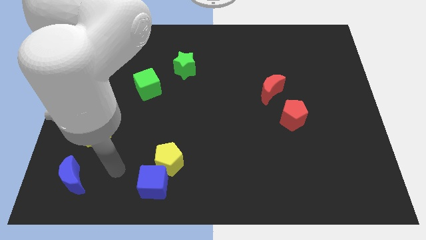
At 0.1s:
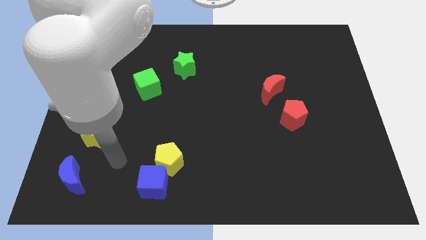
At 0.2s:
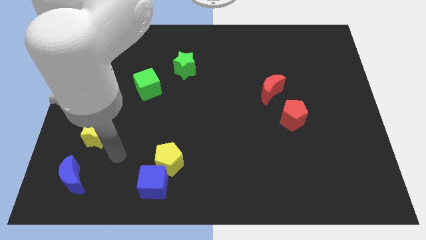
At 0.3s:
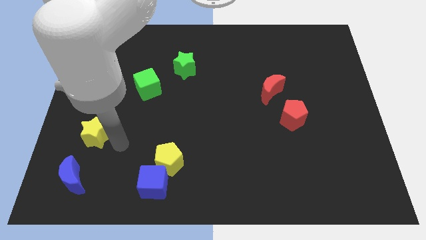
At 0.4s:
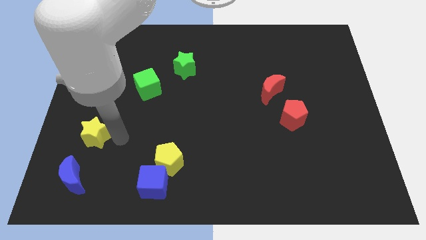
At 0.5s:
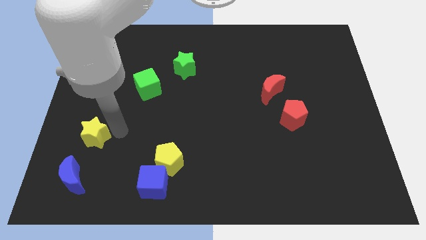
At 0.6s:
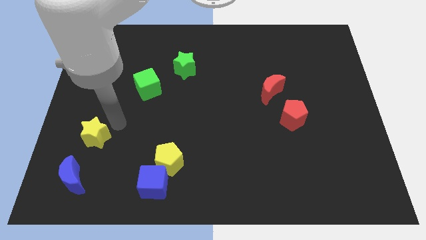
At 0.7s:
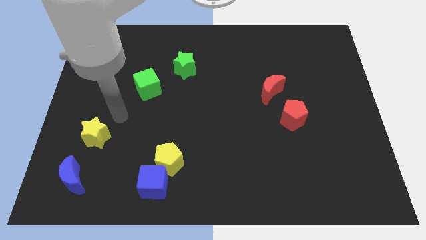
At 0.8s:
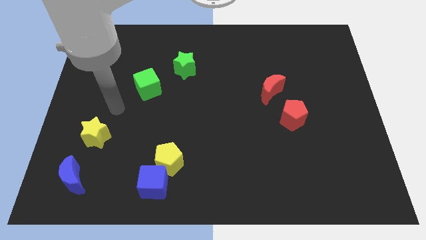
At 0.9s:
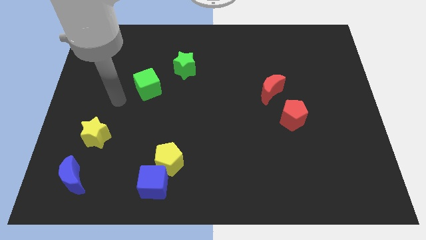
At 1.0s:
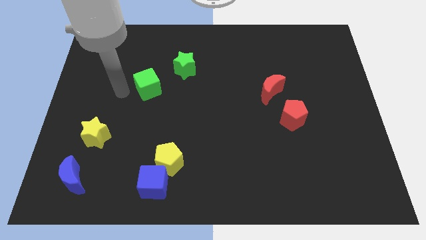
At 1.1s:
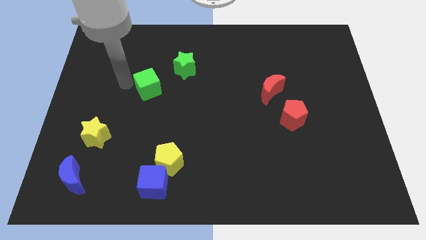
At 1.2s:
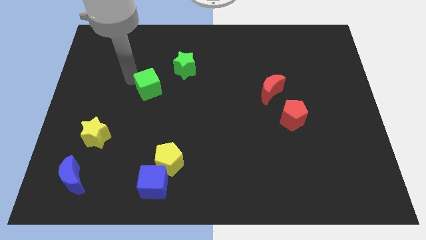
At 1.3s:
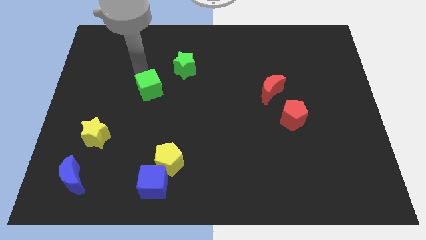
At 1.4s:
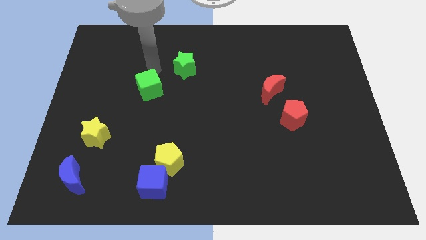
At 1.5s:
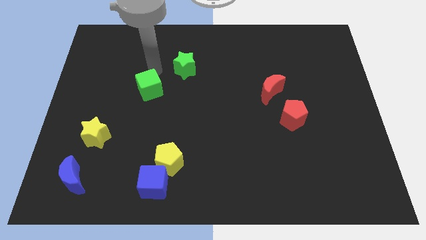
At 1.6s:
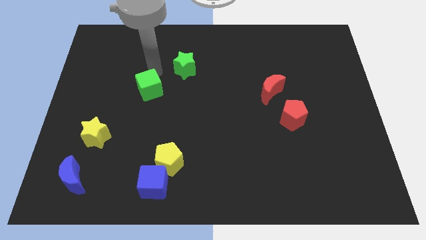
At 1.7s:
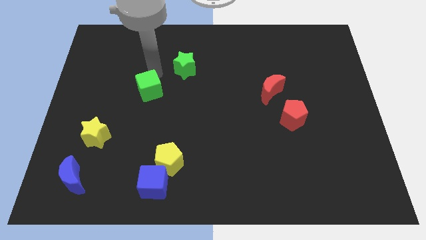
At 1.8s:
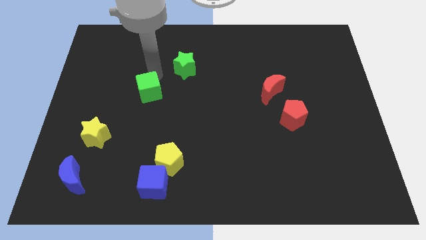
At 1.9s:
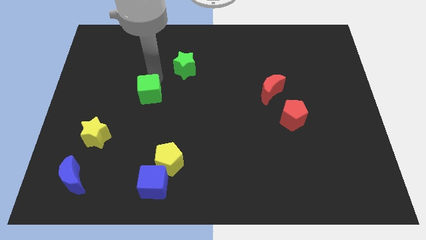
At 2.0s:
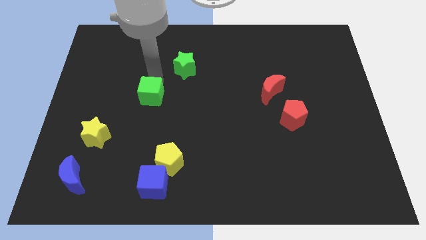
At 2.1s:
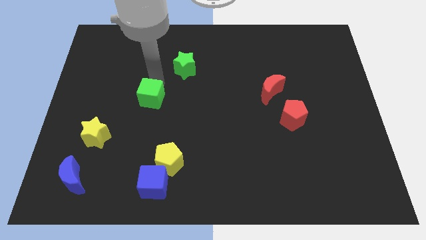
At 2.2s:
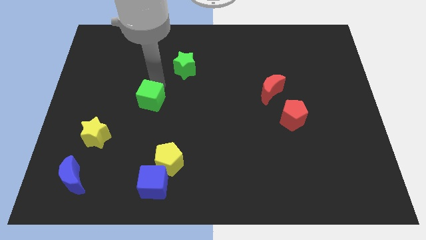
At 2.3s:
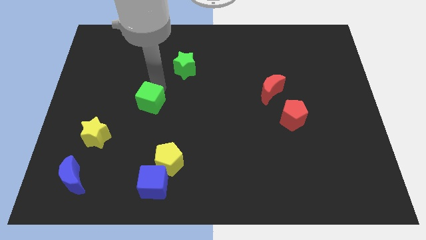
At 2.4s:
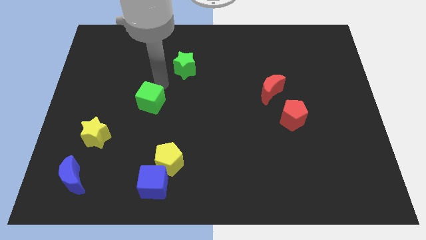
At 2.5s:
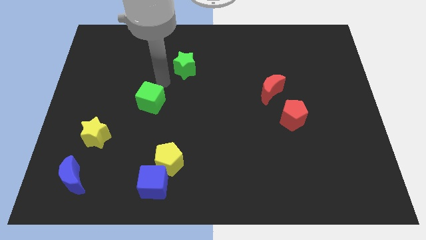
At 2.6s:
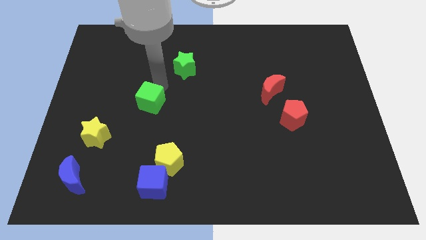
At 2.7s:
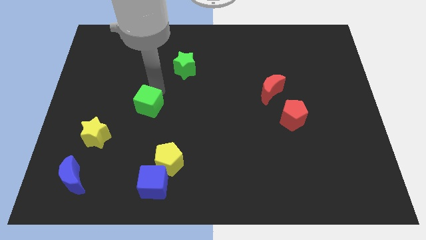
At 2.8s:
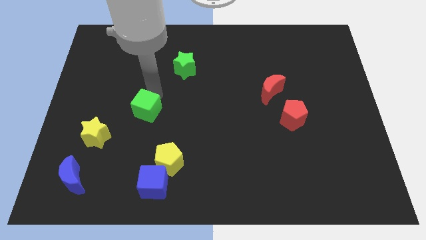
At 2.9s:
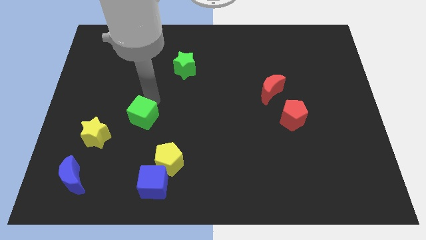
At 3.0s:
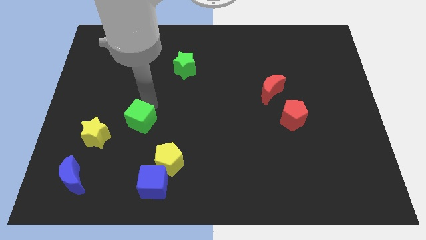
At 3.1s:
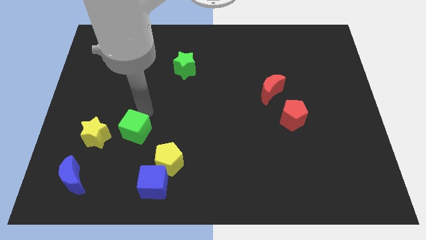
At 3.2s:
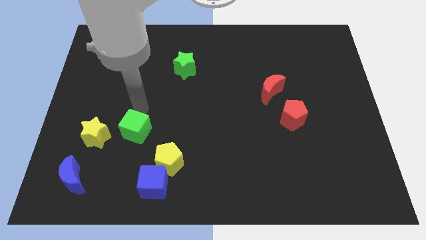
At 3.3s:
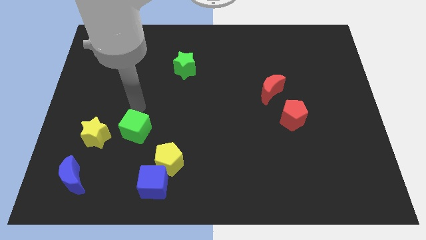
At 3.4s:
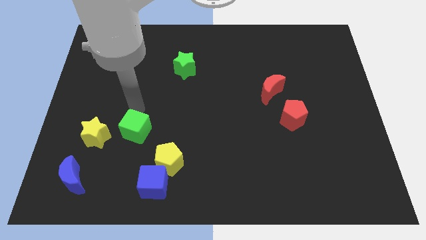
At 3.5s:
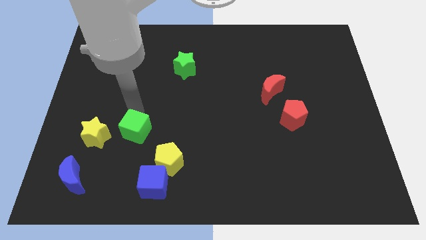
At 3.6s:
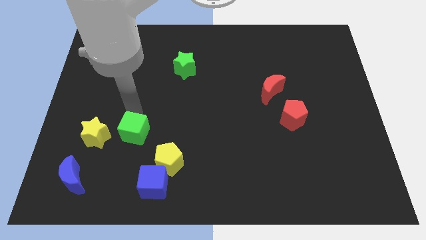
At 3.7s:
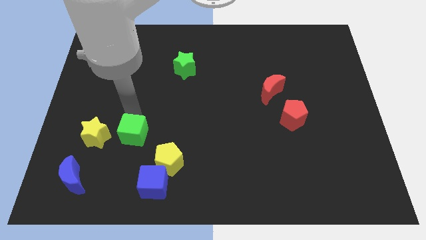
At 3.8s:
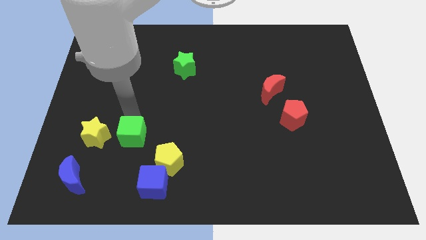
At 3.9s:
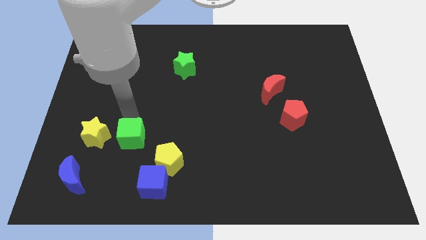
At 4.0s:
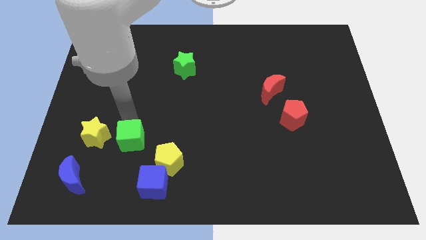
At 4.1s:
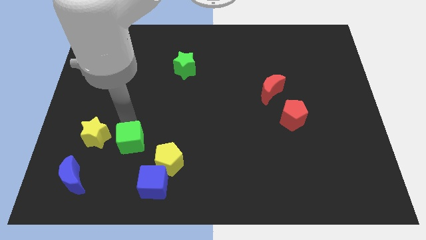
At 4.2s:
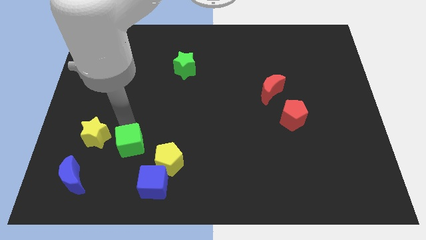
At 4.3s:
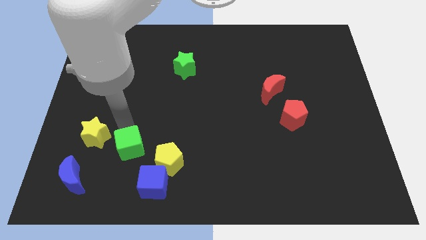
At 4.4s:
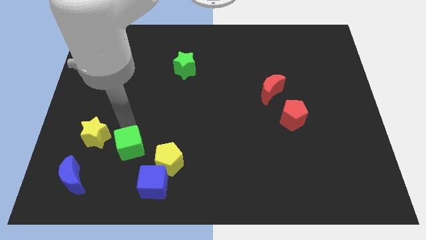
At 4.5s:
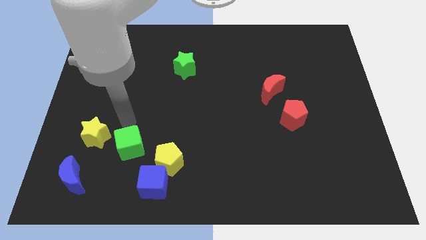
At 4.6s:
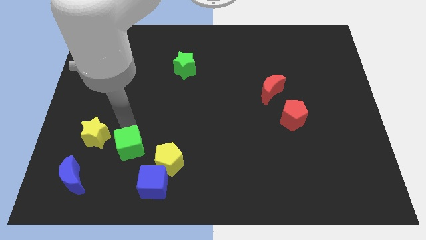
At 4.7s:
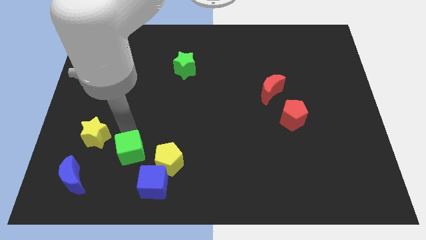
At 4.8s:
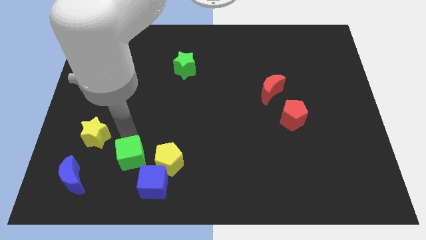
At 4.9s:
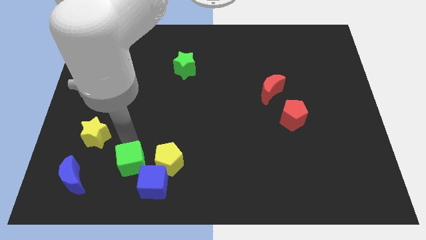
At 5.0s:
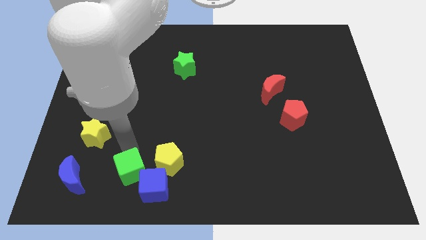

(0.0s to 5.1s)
move the green cube diagonally down and to the left of the yellow pentagon

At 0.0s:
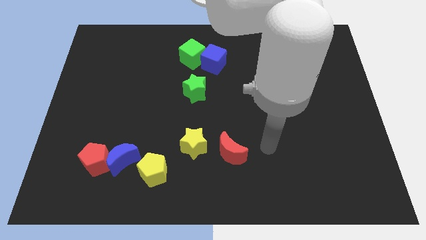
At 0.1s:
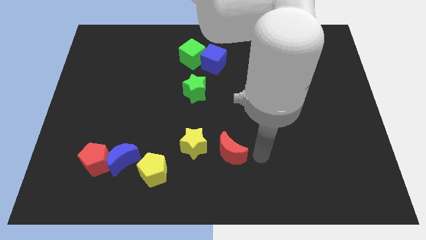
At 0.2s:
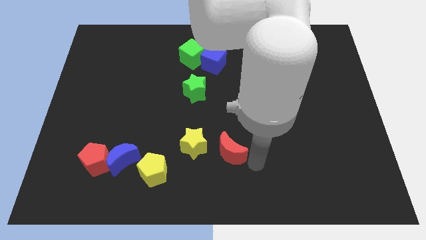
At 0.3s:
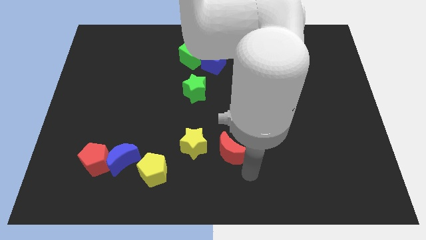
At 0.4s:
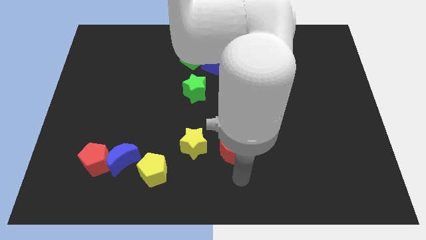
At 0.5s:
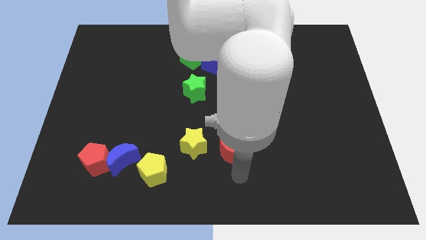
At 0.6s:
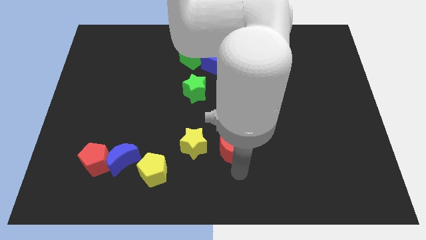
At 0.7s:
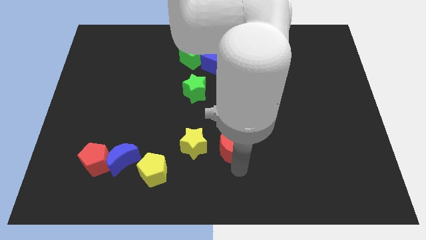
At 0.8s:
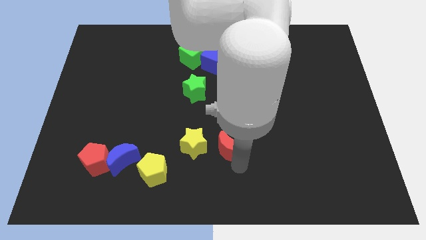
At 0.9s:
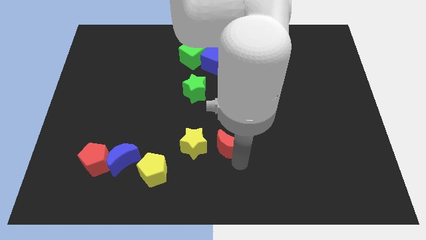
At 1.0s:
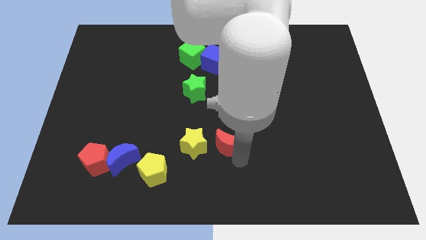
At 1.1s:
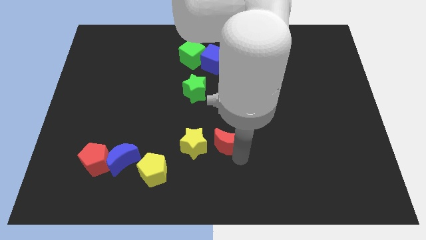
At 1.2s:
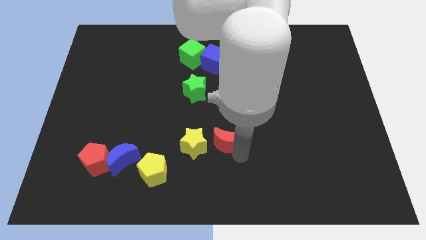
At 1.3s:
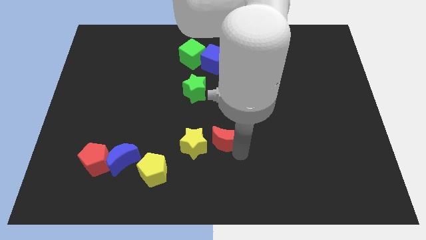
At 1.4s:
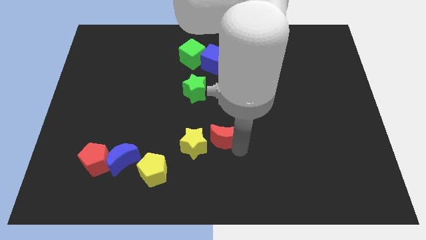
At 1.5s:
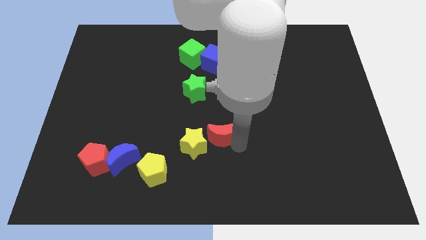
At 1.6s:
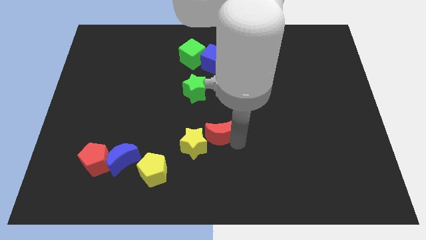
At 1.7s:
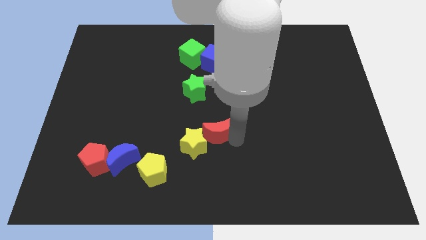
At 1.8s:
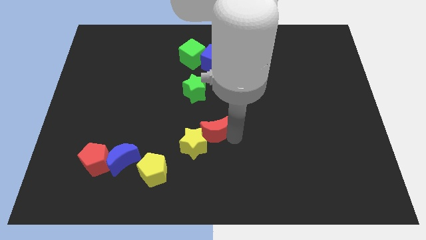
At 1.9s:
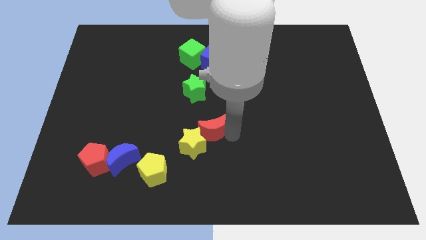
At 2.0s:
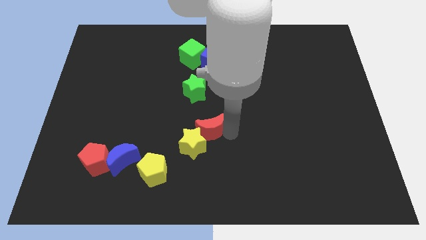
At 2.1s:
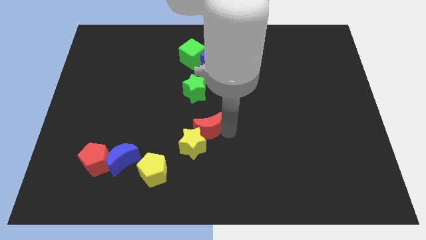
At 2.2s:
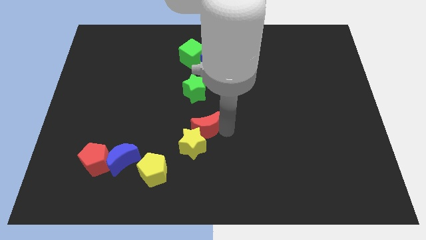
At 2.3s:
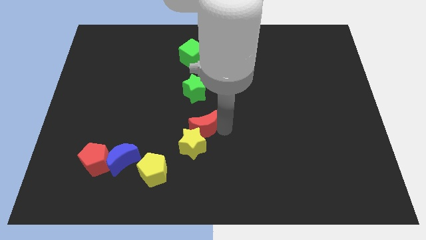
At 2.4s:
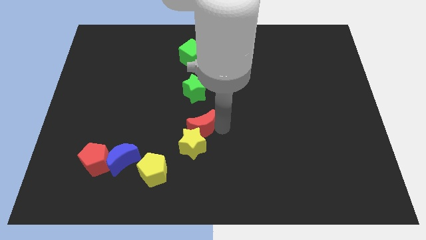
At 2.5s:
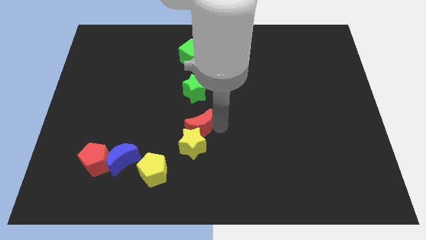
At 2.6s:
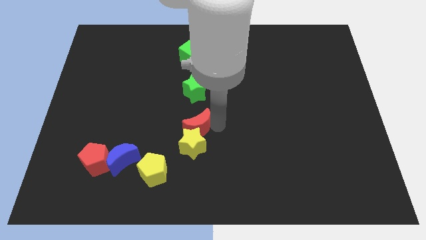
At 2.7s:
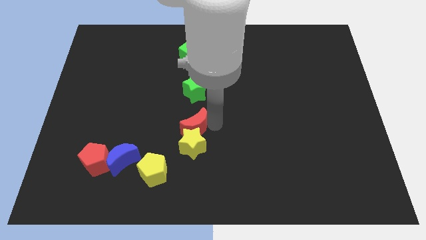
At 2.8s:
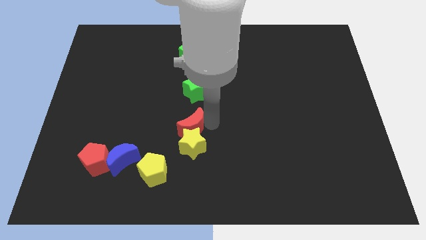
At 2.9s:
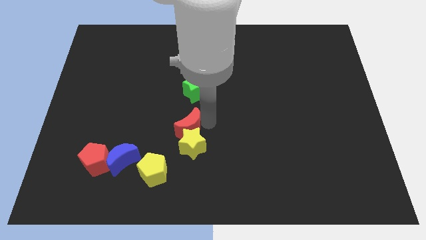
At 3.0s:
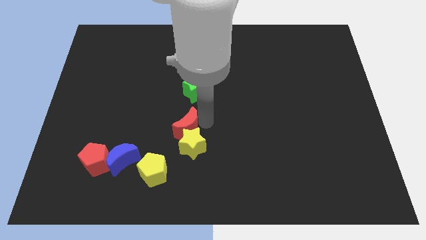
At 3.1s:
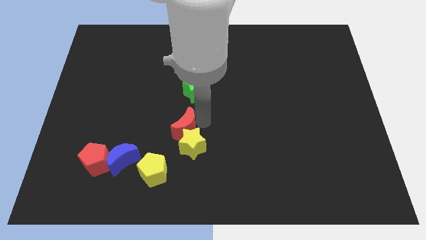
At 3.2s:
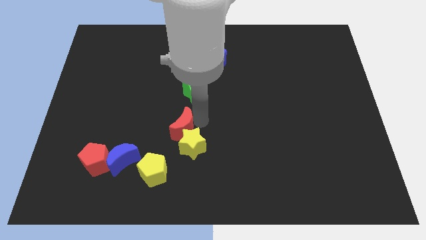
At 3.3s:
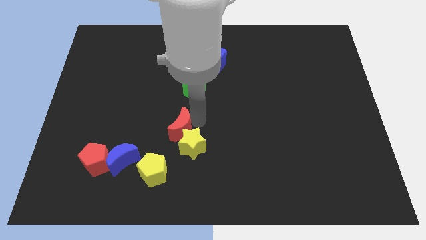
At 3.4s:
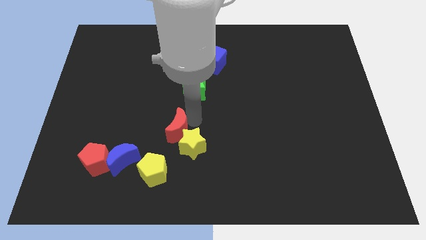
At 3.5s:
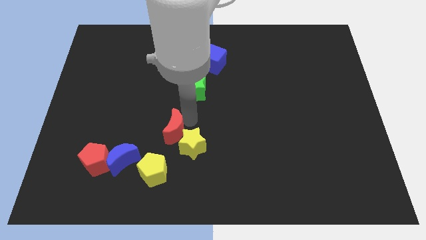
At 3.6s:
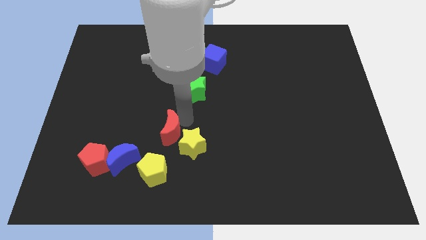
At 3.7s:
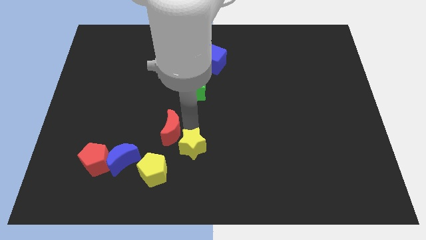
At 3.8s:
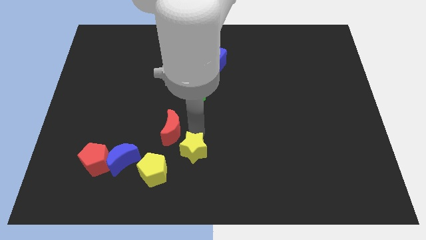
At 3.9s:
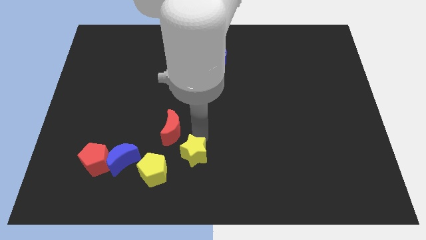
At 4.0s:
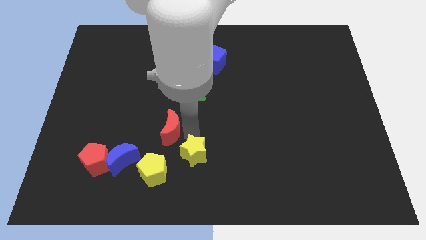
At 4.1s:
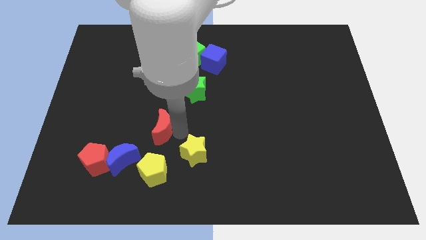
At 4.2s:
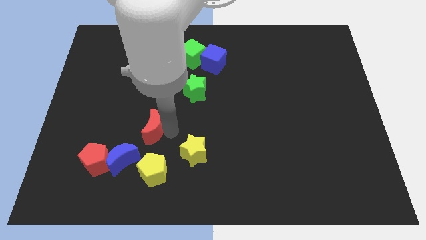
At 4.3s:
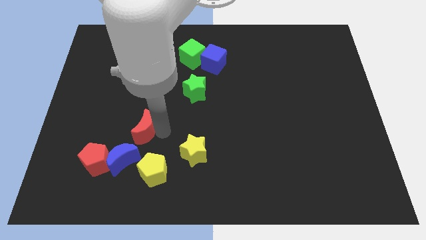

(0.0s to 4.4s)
slide the red moon to the top side of the blue moon
